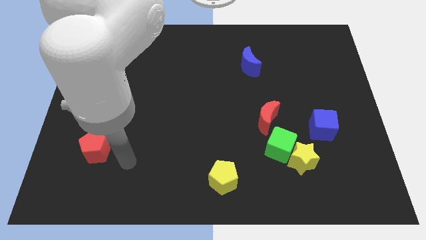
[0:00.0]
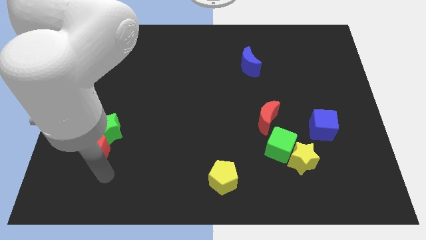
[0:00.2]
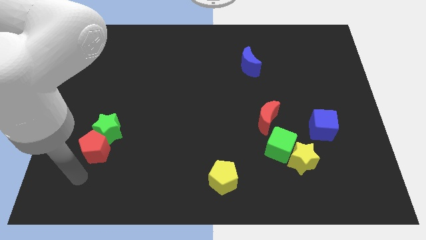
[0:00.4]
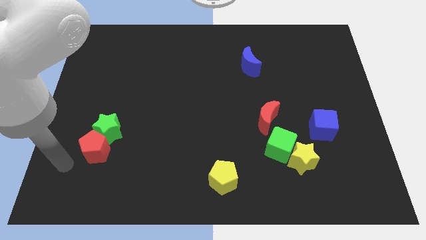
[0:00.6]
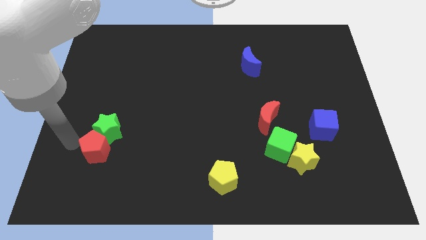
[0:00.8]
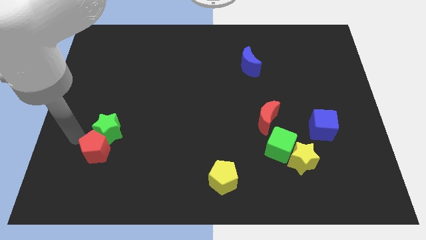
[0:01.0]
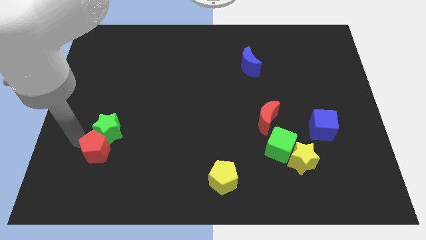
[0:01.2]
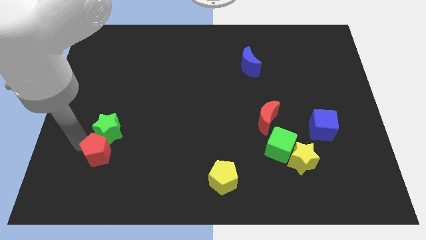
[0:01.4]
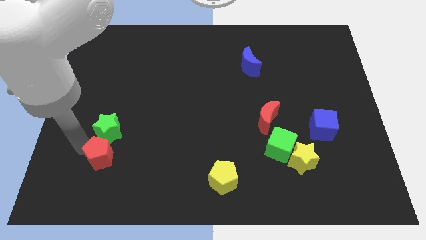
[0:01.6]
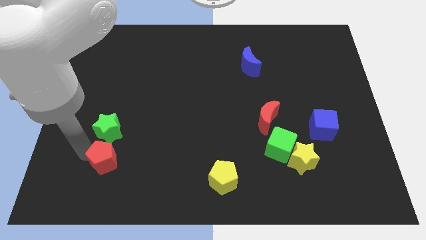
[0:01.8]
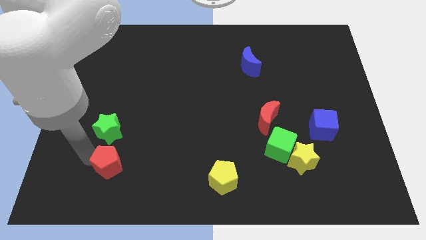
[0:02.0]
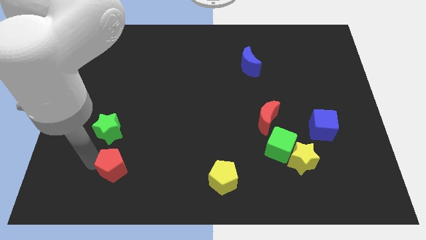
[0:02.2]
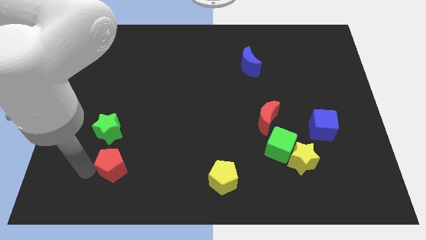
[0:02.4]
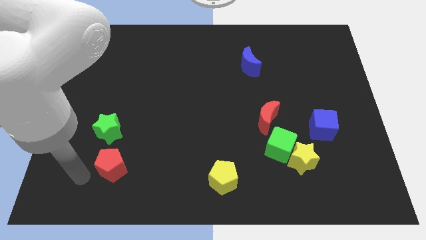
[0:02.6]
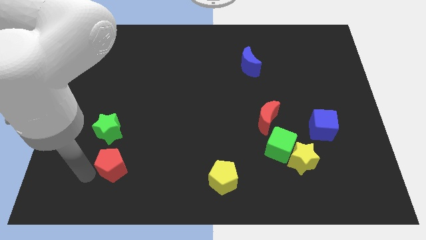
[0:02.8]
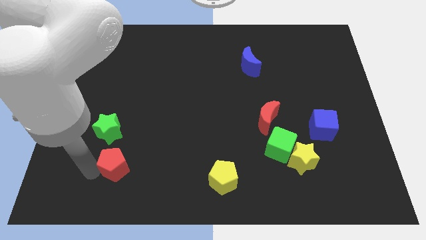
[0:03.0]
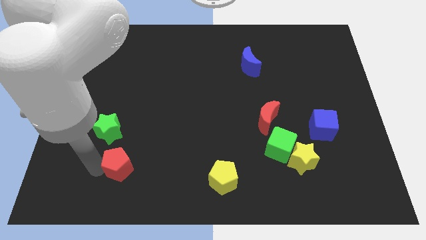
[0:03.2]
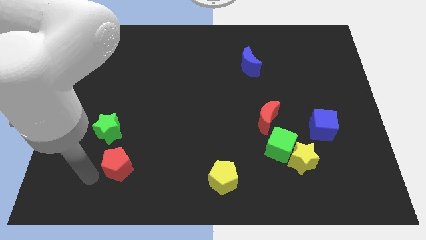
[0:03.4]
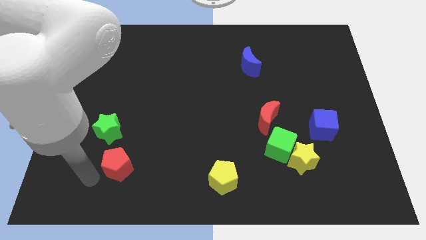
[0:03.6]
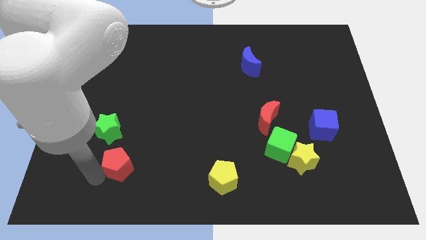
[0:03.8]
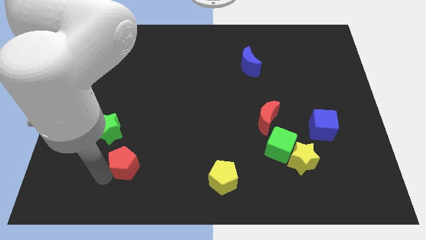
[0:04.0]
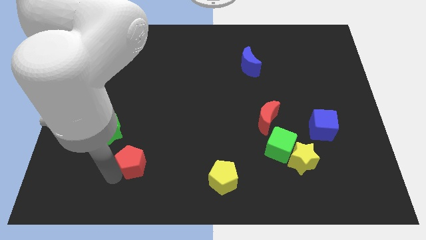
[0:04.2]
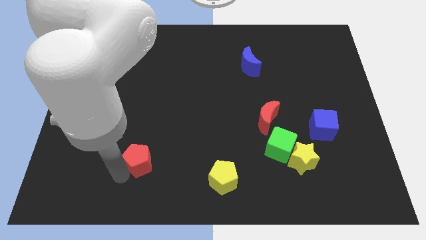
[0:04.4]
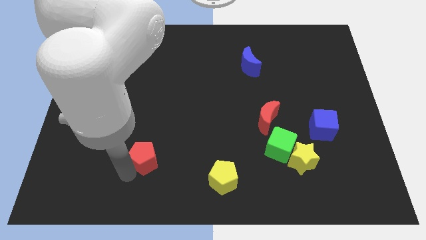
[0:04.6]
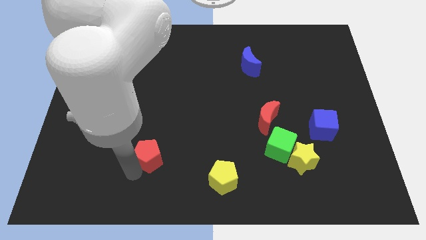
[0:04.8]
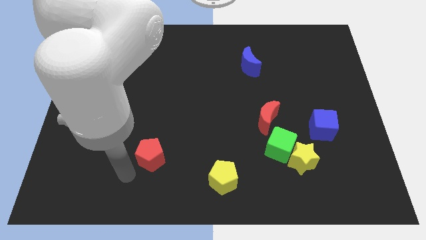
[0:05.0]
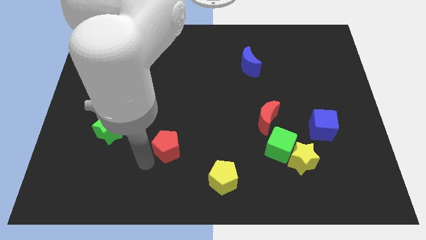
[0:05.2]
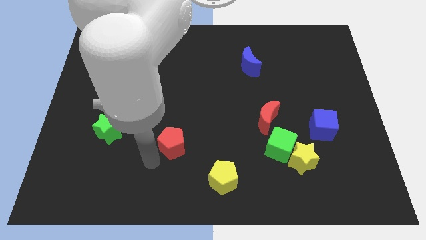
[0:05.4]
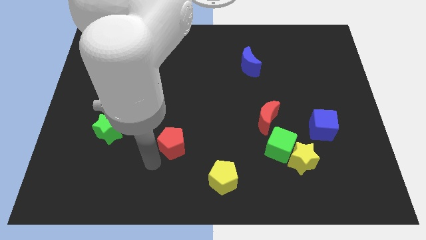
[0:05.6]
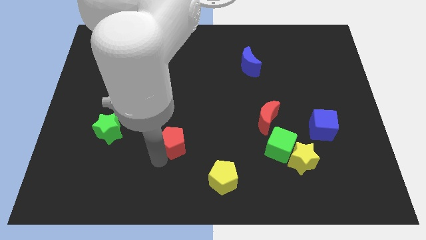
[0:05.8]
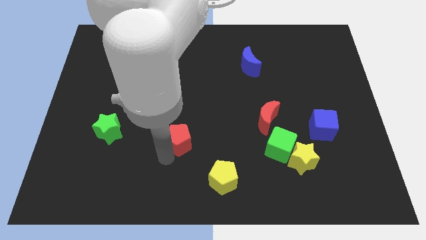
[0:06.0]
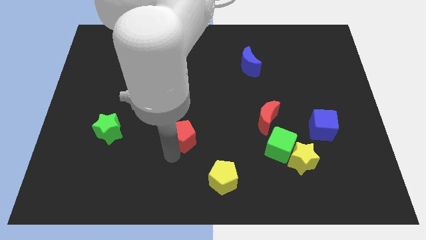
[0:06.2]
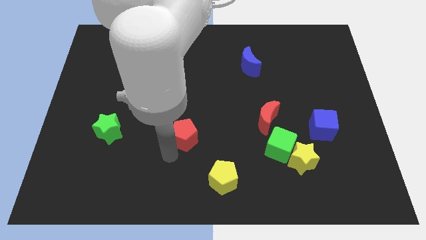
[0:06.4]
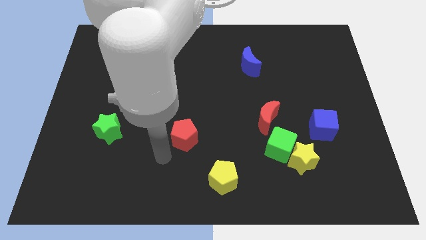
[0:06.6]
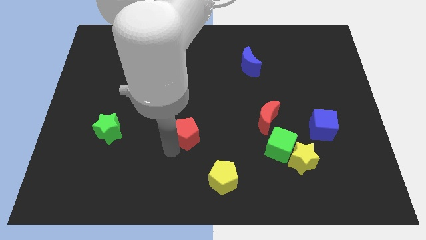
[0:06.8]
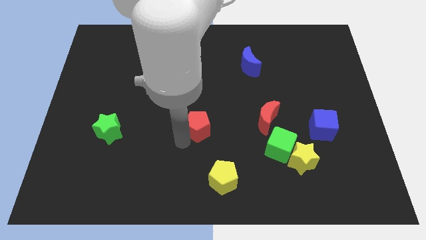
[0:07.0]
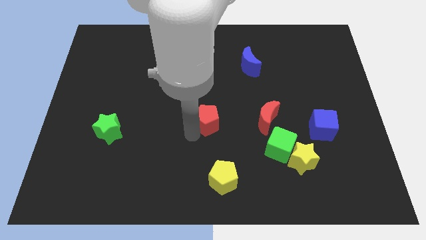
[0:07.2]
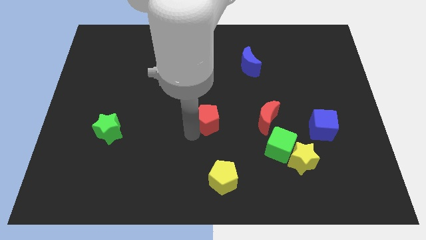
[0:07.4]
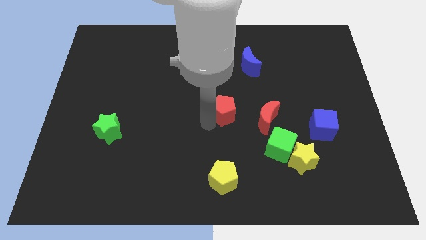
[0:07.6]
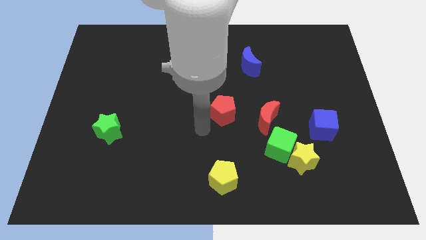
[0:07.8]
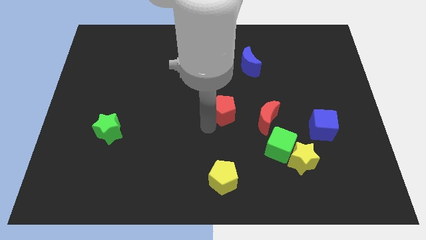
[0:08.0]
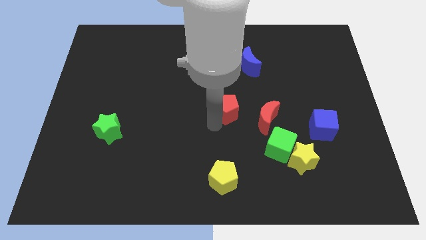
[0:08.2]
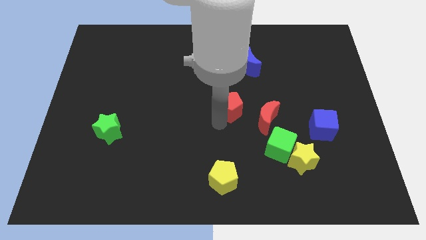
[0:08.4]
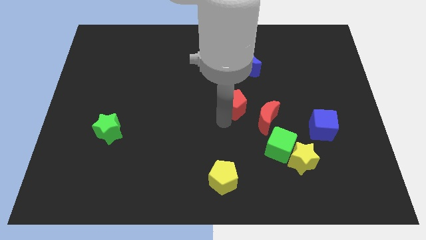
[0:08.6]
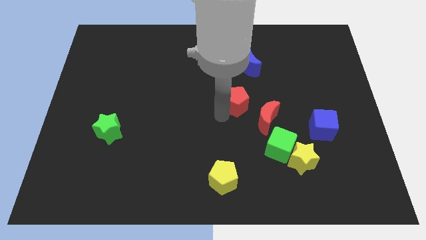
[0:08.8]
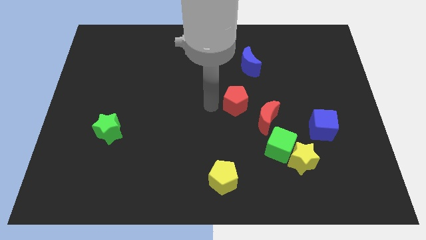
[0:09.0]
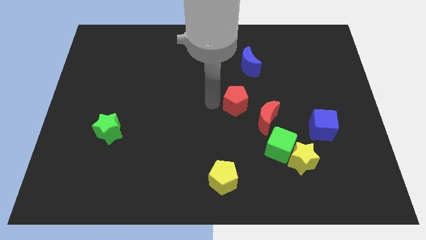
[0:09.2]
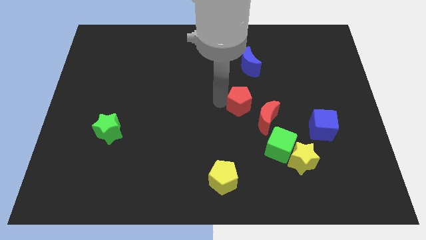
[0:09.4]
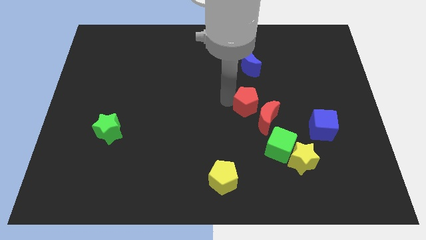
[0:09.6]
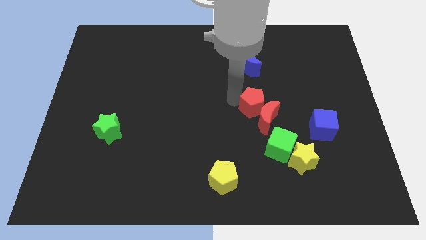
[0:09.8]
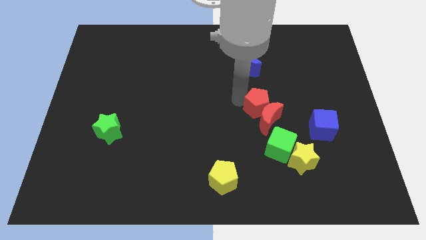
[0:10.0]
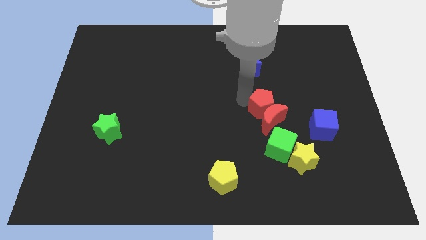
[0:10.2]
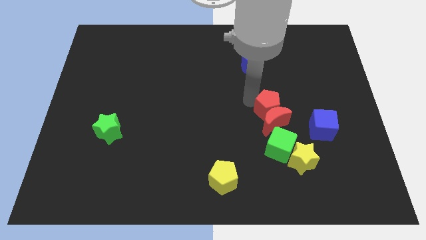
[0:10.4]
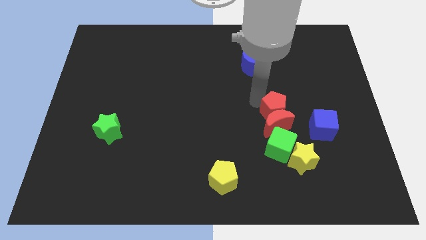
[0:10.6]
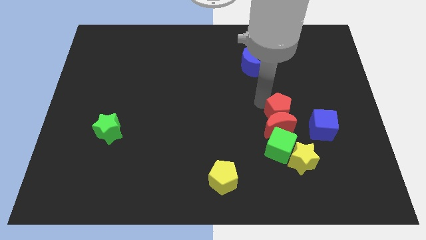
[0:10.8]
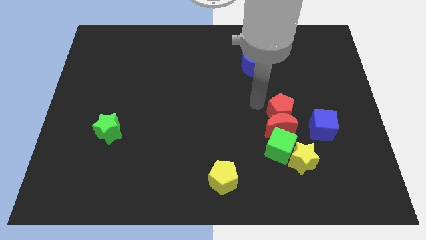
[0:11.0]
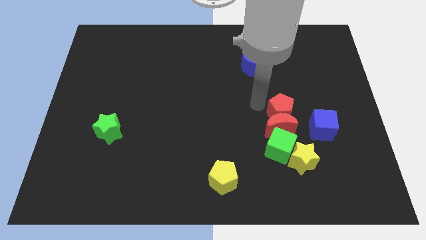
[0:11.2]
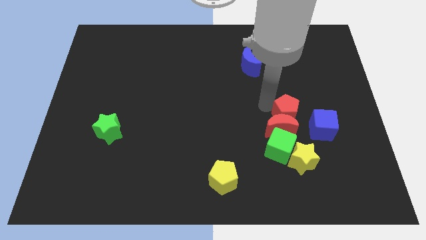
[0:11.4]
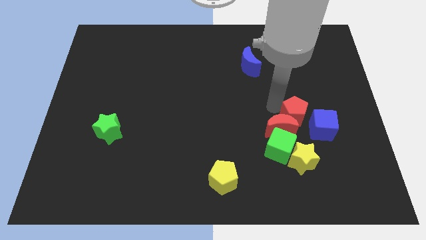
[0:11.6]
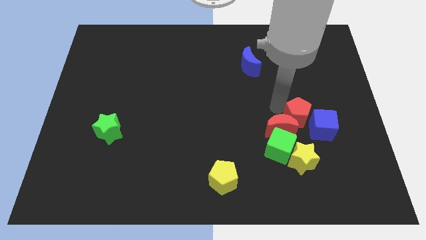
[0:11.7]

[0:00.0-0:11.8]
move the red pentagon close to the blue cube

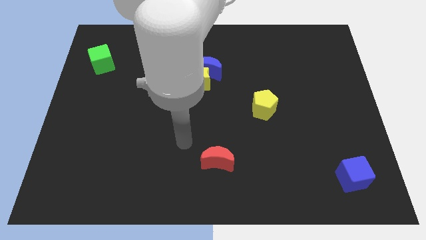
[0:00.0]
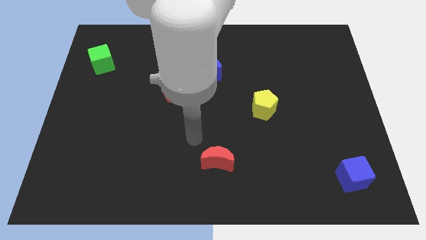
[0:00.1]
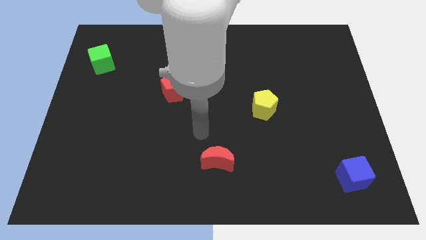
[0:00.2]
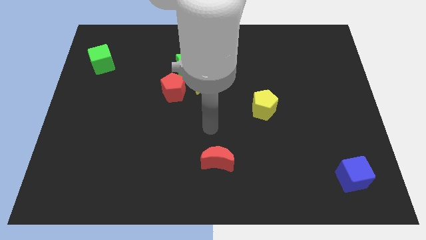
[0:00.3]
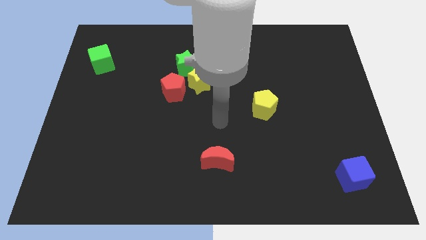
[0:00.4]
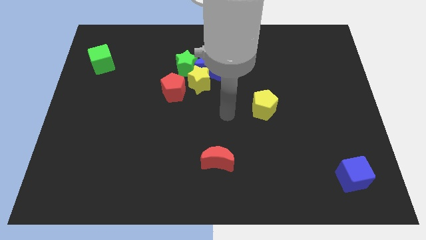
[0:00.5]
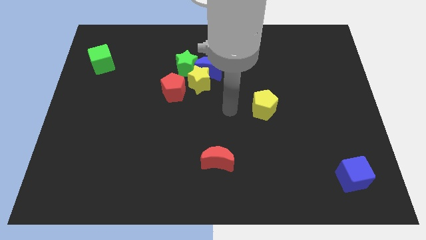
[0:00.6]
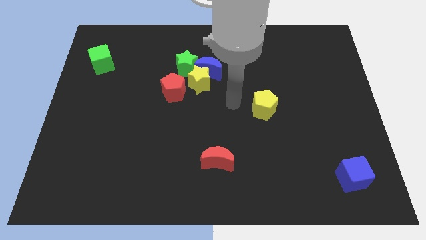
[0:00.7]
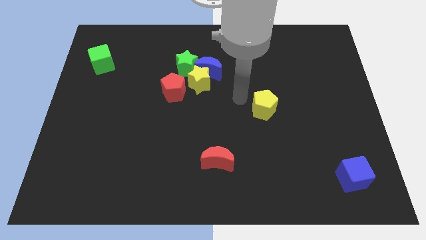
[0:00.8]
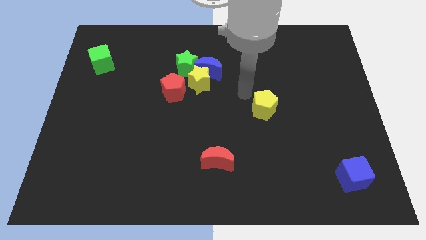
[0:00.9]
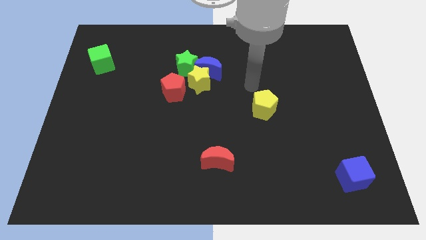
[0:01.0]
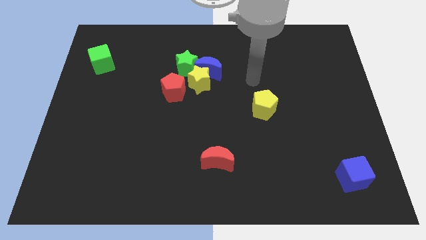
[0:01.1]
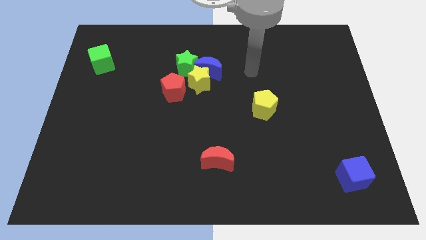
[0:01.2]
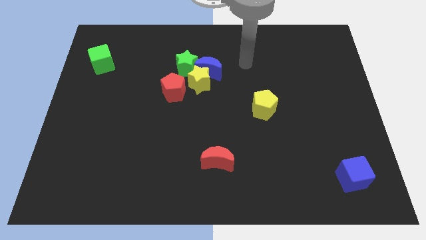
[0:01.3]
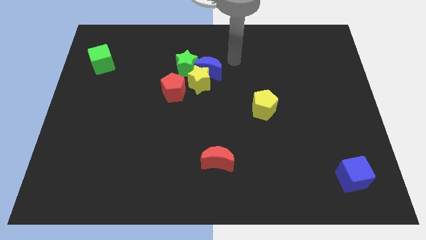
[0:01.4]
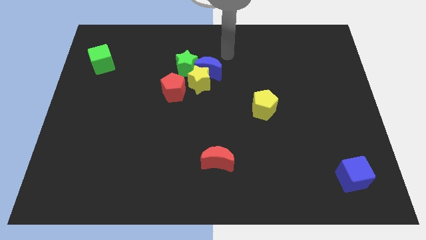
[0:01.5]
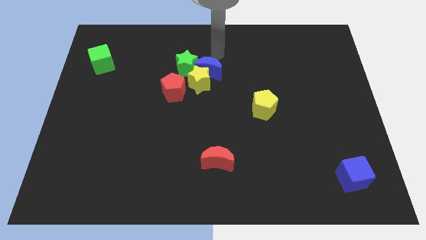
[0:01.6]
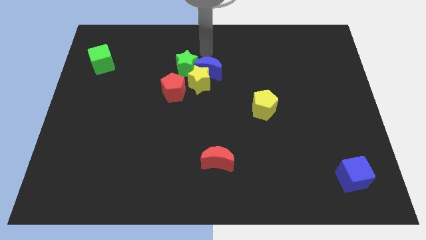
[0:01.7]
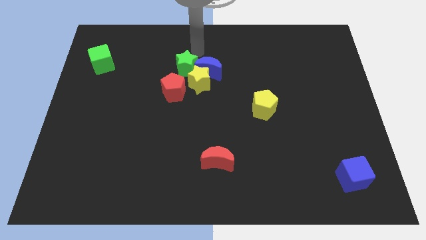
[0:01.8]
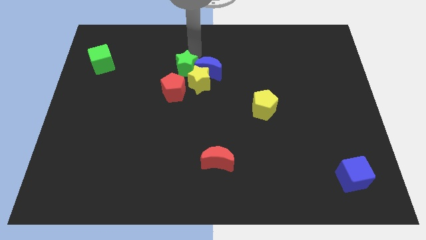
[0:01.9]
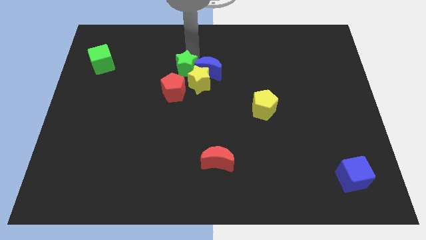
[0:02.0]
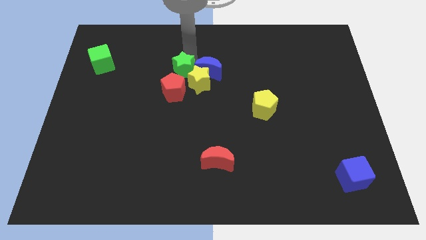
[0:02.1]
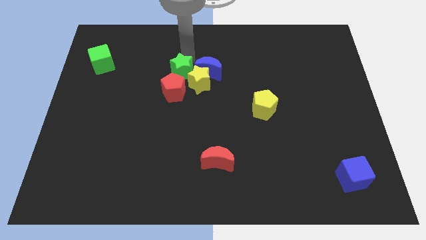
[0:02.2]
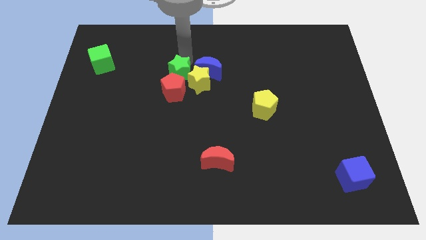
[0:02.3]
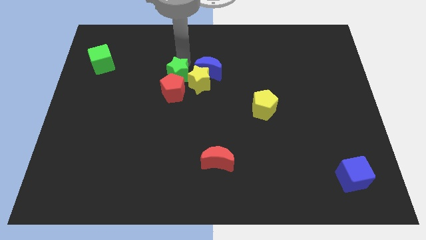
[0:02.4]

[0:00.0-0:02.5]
move the green star next to the red pentagon

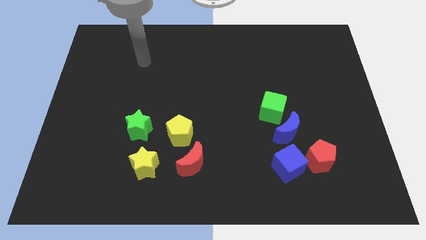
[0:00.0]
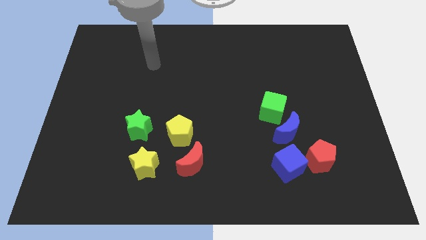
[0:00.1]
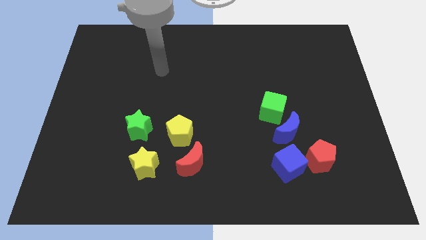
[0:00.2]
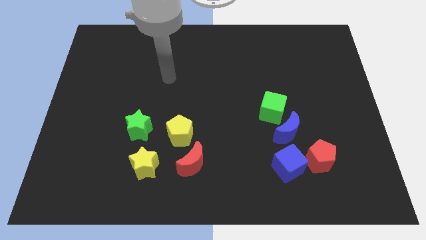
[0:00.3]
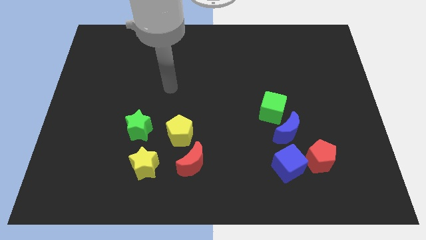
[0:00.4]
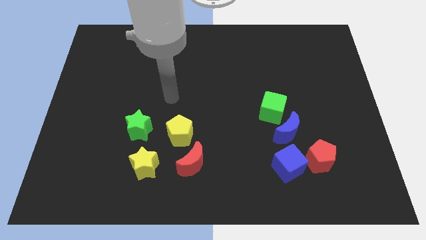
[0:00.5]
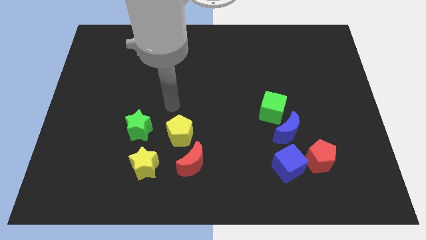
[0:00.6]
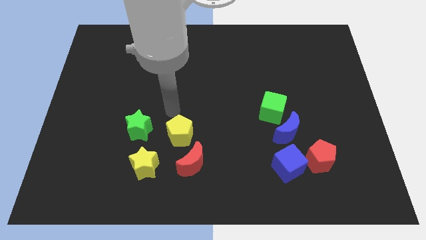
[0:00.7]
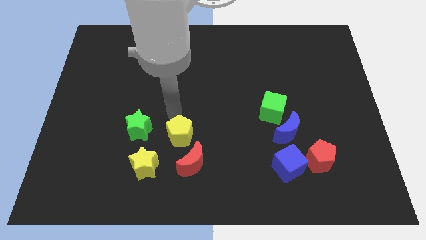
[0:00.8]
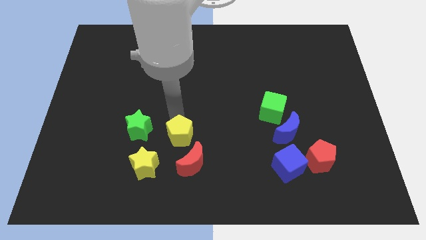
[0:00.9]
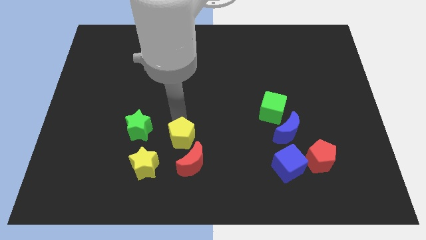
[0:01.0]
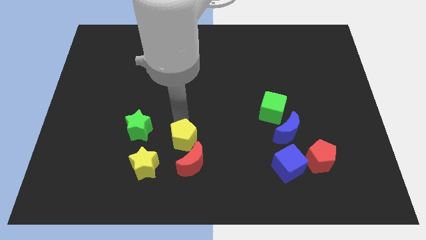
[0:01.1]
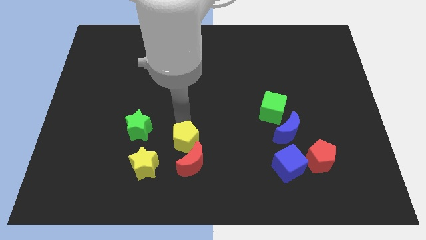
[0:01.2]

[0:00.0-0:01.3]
slide the yellow pentagon to the red moon
